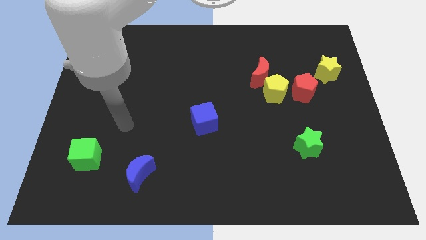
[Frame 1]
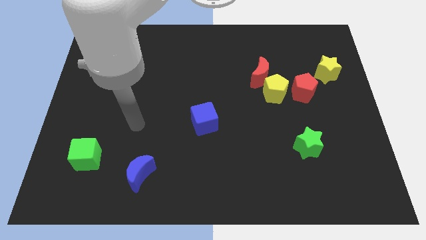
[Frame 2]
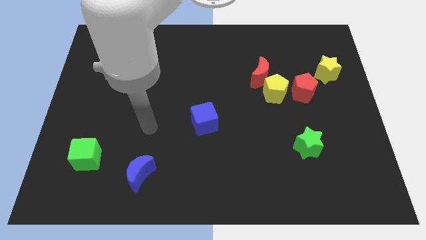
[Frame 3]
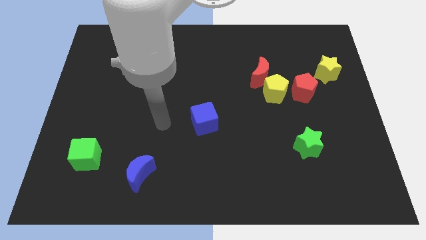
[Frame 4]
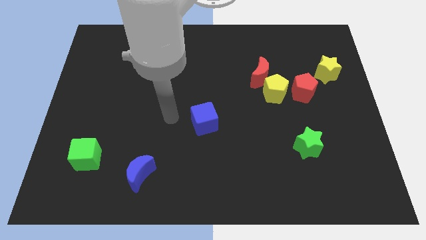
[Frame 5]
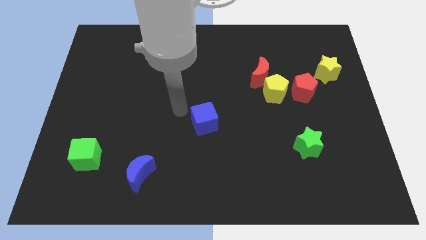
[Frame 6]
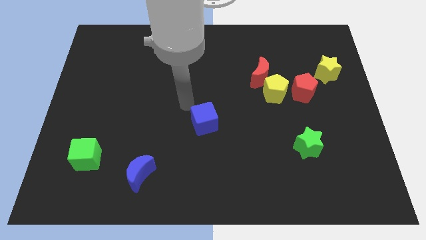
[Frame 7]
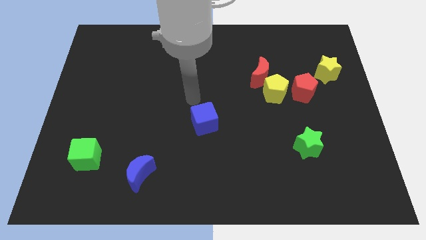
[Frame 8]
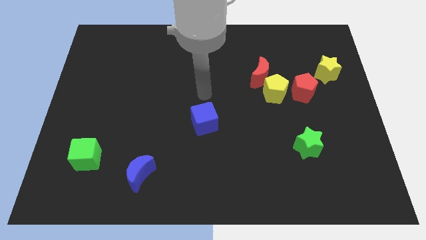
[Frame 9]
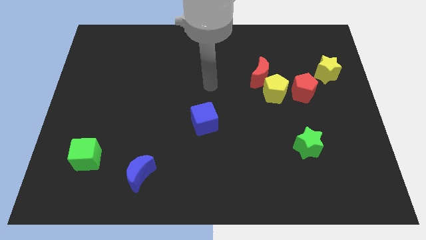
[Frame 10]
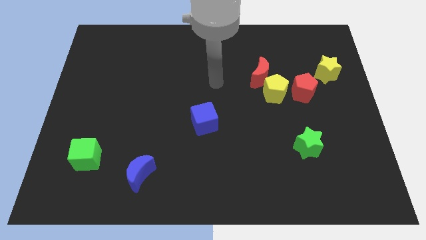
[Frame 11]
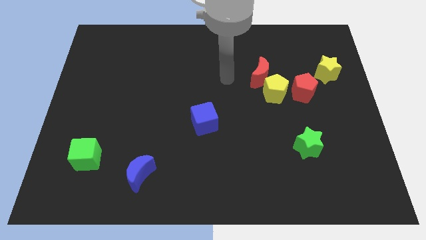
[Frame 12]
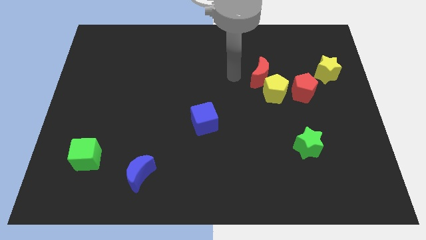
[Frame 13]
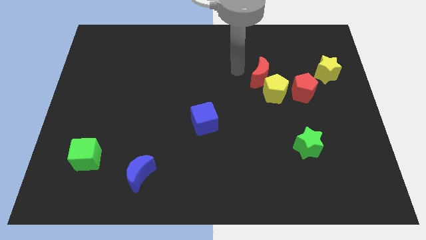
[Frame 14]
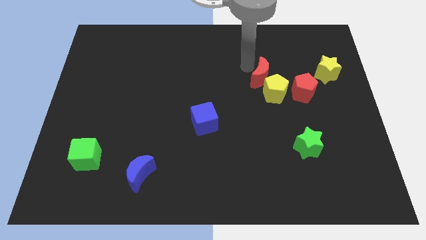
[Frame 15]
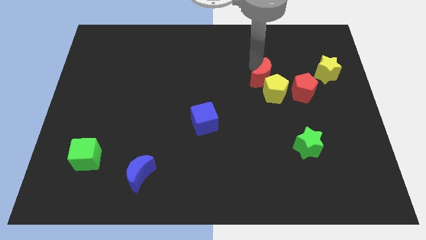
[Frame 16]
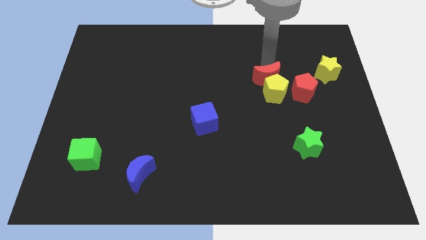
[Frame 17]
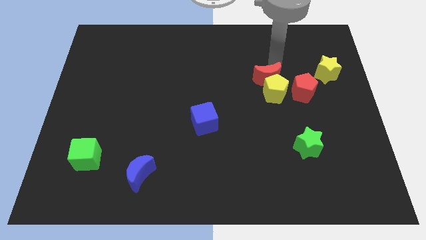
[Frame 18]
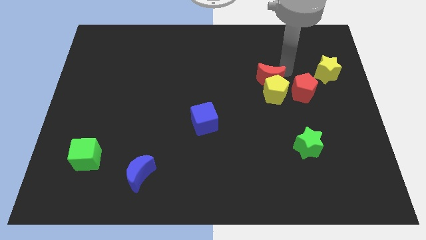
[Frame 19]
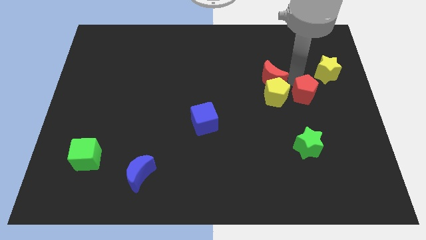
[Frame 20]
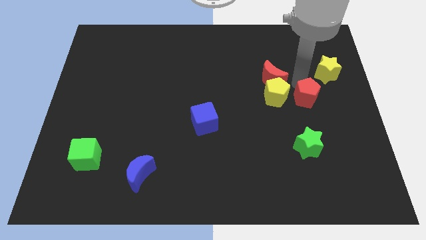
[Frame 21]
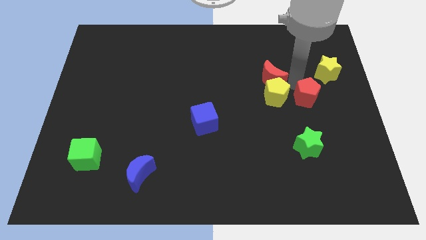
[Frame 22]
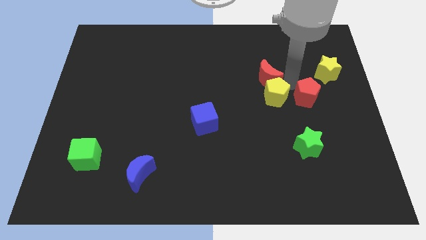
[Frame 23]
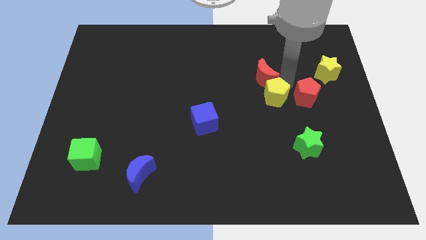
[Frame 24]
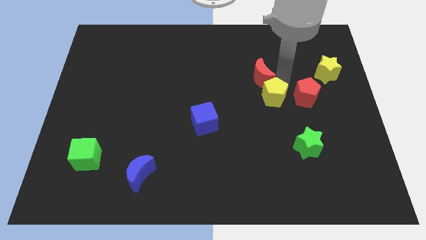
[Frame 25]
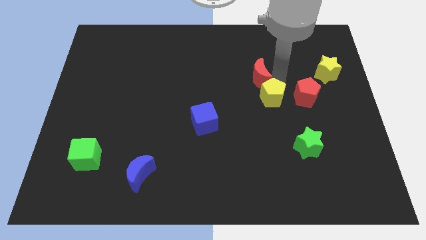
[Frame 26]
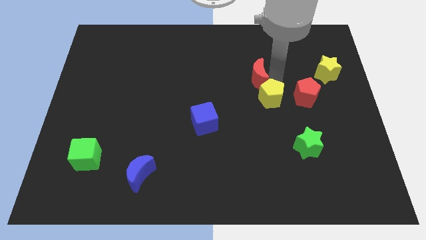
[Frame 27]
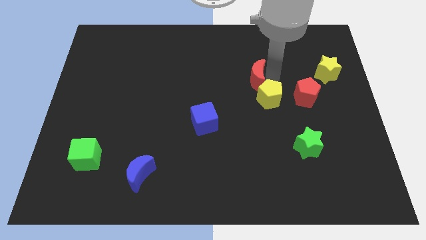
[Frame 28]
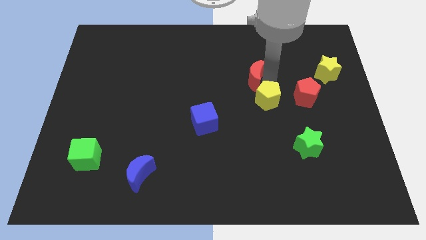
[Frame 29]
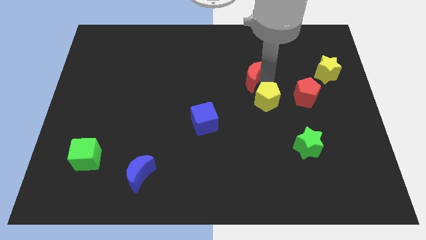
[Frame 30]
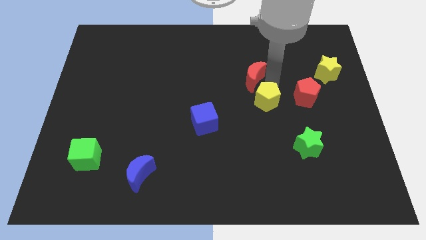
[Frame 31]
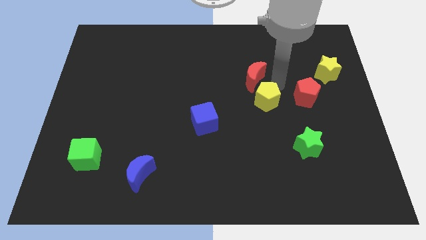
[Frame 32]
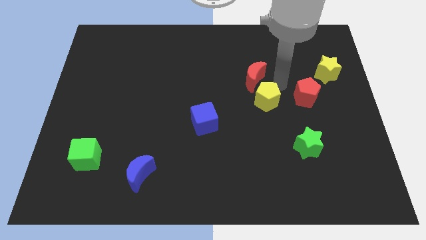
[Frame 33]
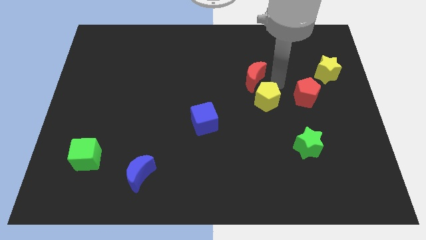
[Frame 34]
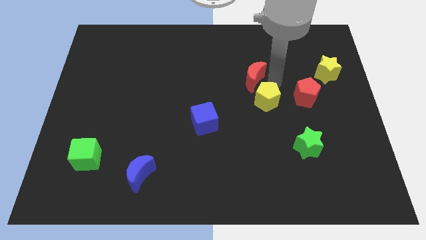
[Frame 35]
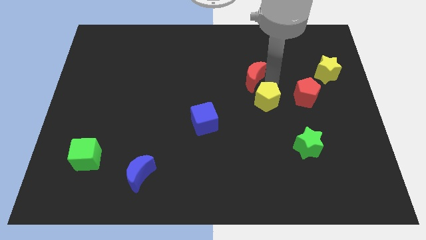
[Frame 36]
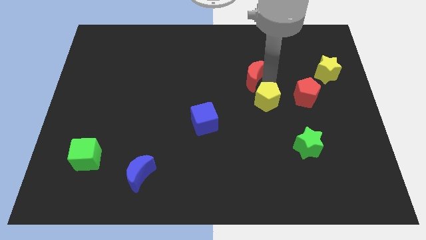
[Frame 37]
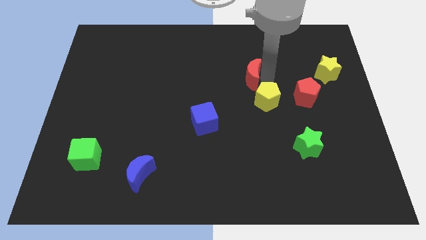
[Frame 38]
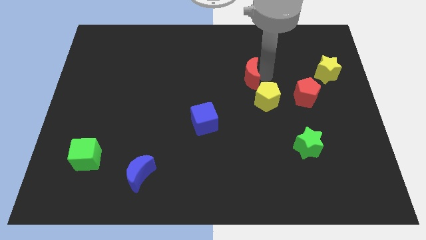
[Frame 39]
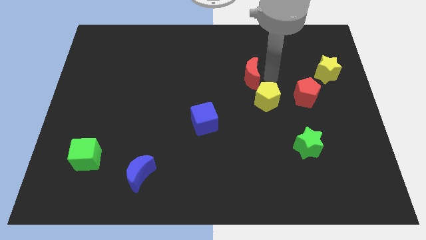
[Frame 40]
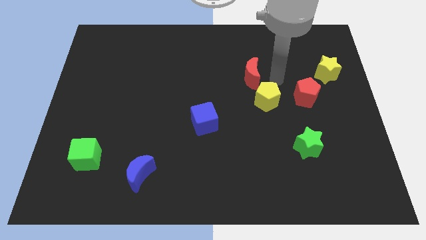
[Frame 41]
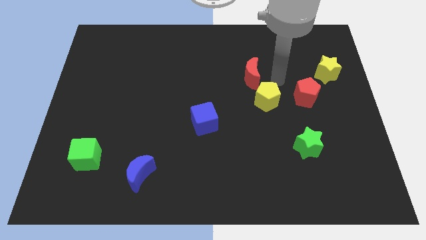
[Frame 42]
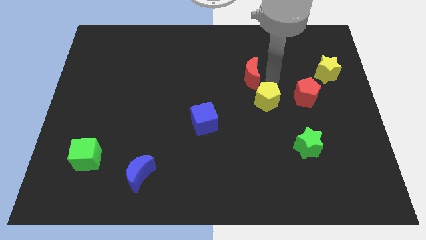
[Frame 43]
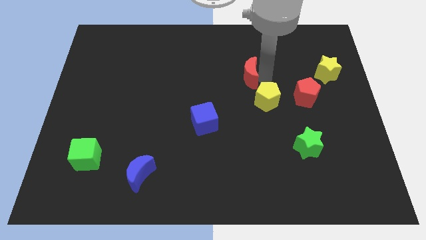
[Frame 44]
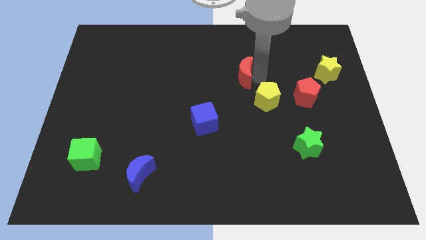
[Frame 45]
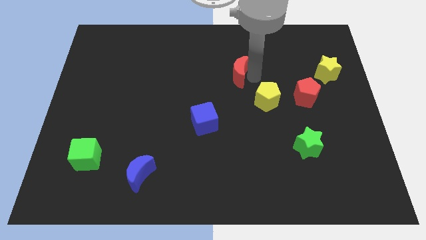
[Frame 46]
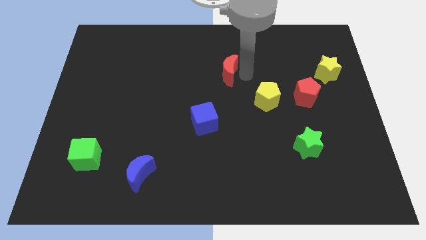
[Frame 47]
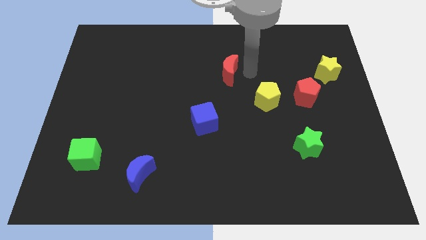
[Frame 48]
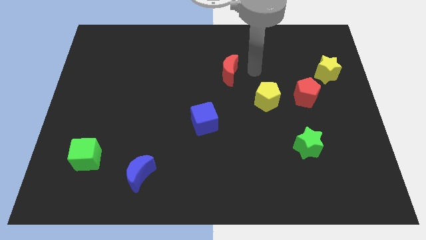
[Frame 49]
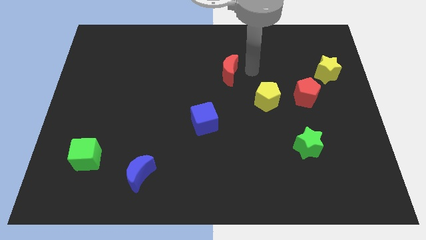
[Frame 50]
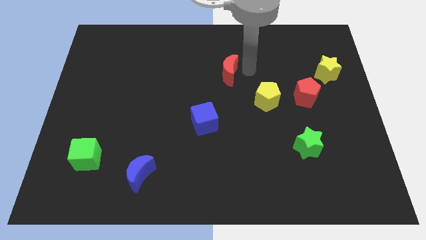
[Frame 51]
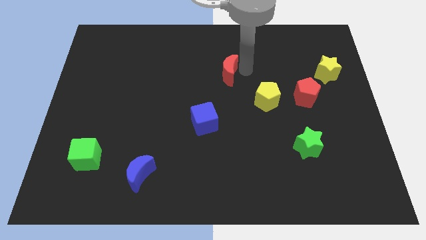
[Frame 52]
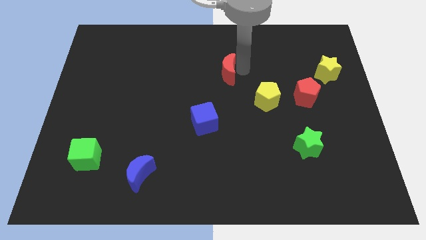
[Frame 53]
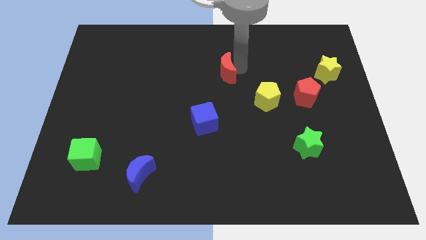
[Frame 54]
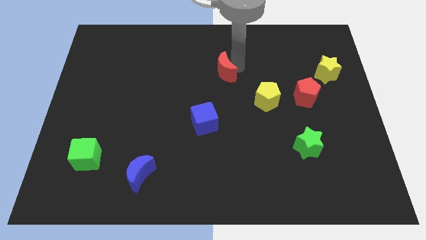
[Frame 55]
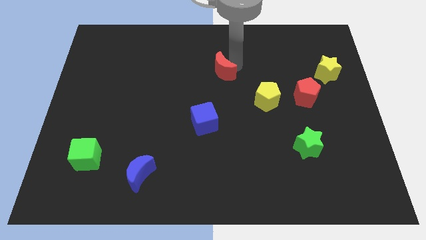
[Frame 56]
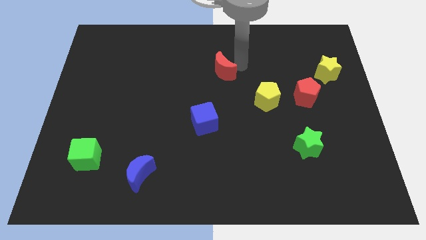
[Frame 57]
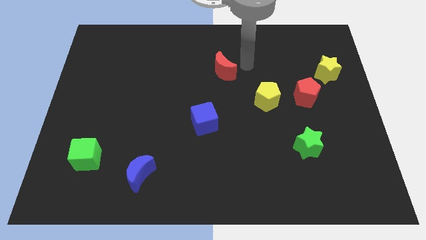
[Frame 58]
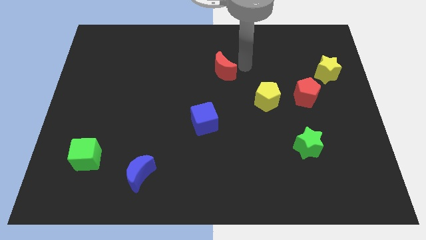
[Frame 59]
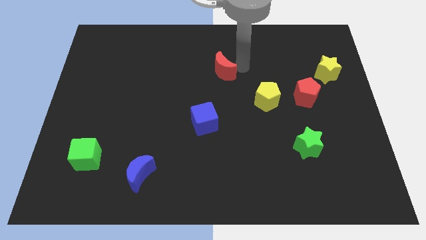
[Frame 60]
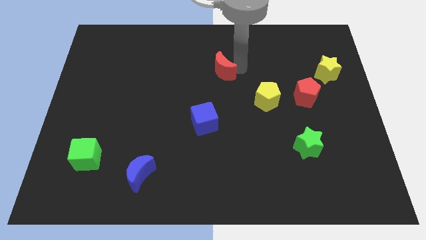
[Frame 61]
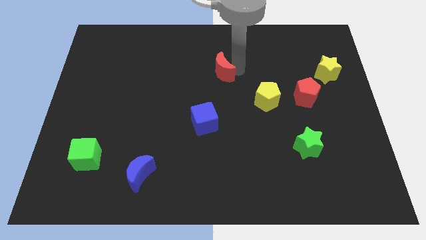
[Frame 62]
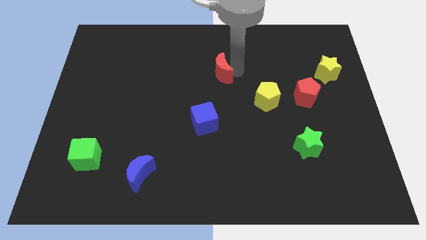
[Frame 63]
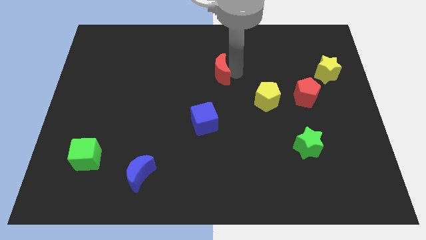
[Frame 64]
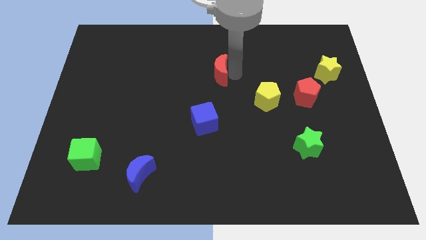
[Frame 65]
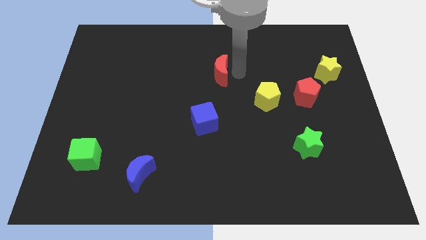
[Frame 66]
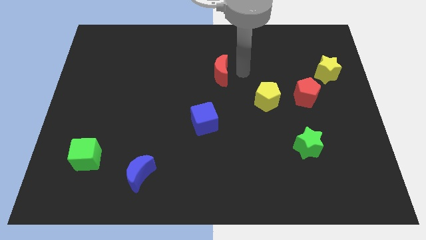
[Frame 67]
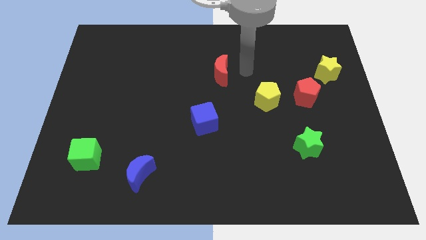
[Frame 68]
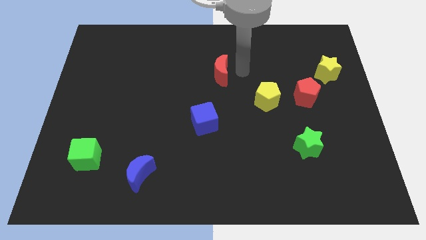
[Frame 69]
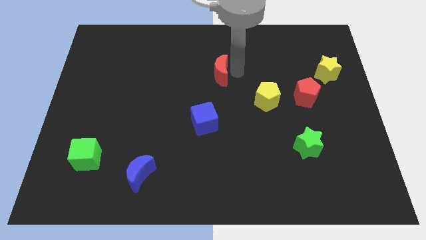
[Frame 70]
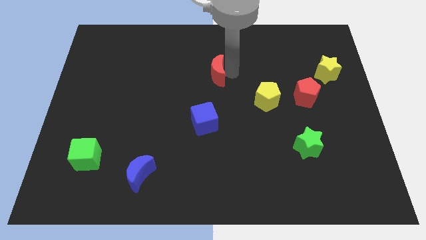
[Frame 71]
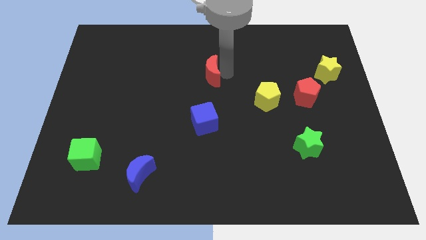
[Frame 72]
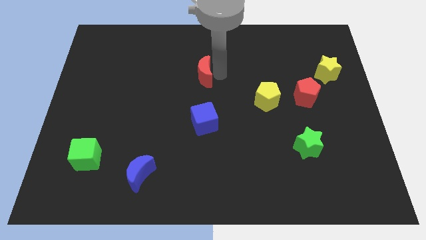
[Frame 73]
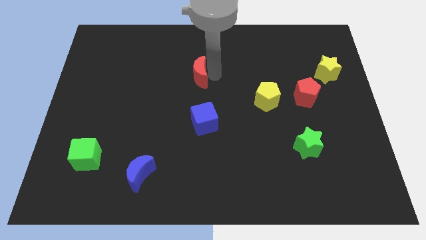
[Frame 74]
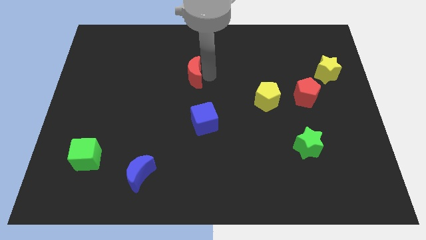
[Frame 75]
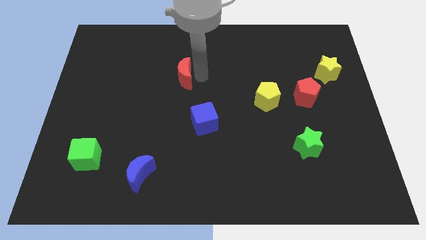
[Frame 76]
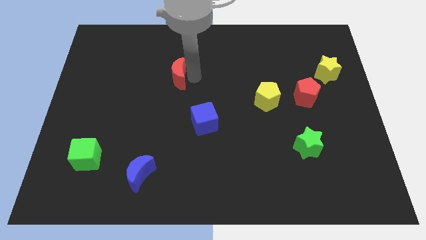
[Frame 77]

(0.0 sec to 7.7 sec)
move the red moon left
